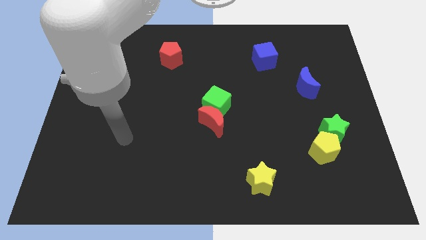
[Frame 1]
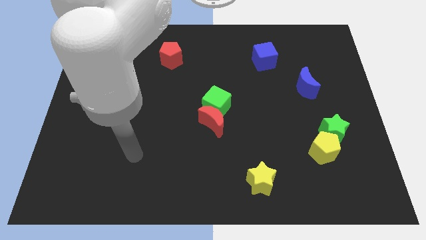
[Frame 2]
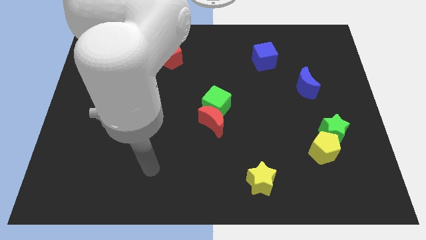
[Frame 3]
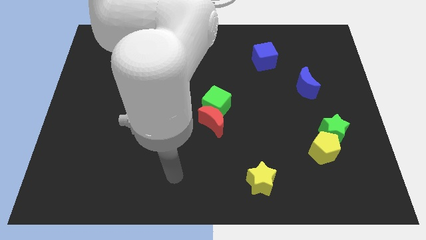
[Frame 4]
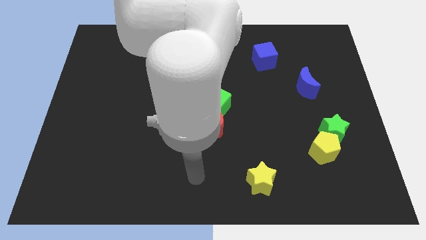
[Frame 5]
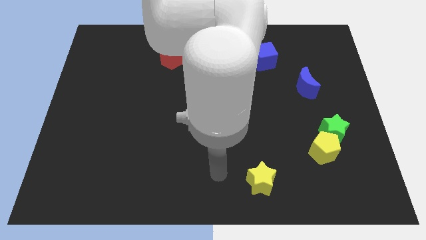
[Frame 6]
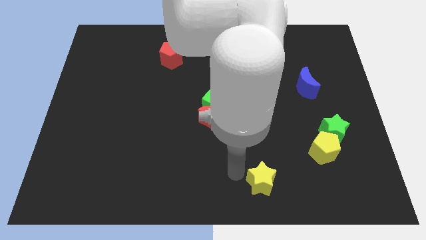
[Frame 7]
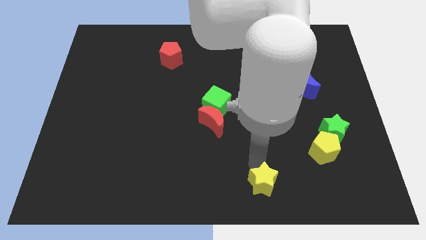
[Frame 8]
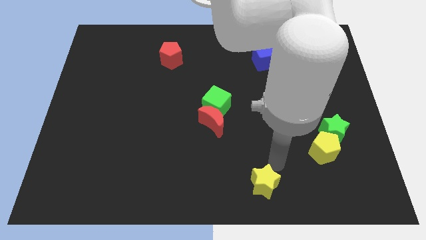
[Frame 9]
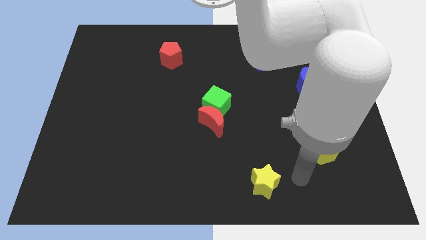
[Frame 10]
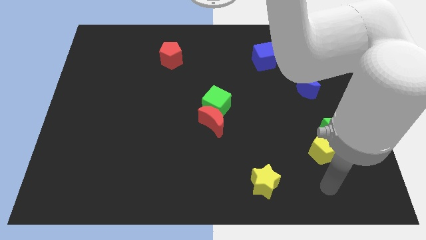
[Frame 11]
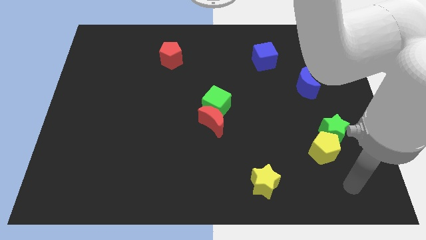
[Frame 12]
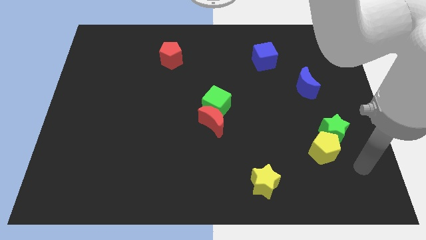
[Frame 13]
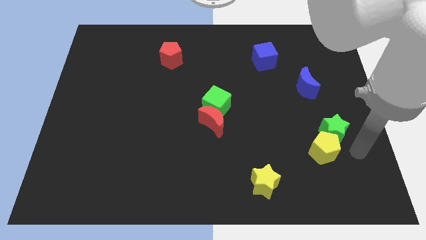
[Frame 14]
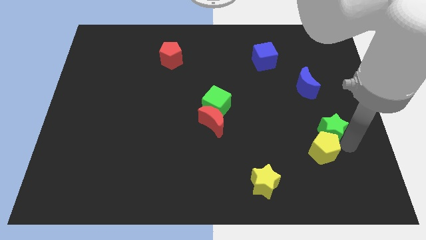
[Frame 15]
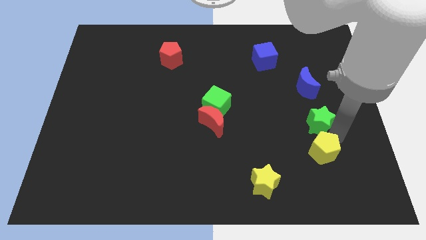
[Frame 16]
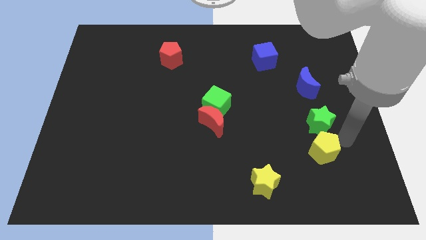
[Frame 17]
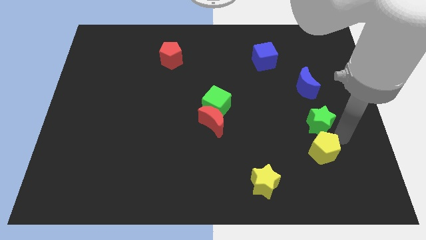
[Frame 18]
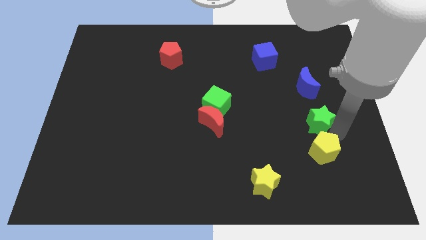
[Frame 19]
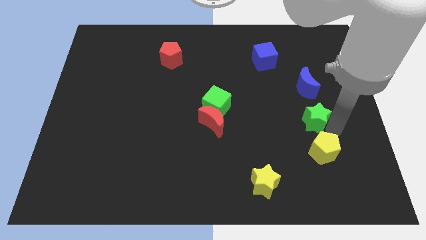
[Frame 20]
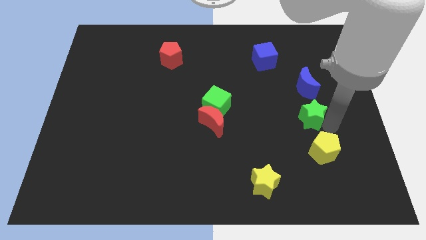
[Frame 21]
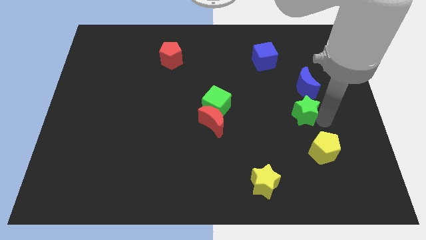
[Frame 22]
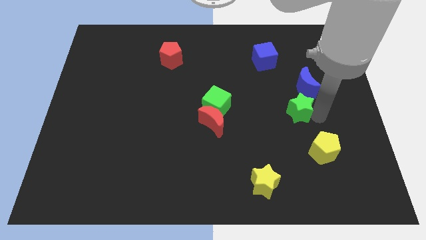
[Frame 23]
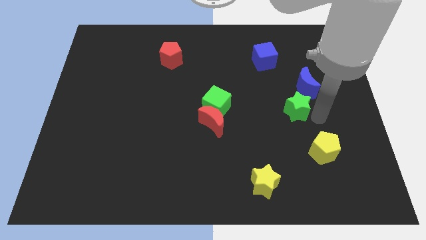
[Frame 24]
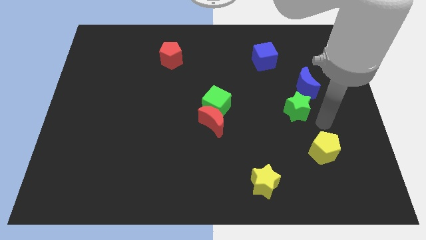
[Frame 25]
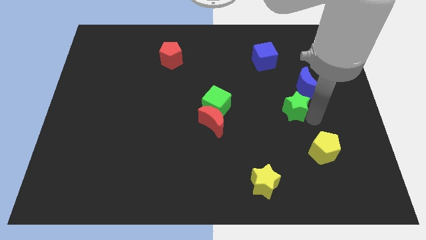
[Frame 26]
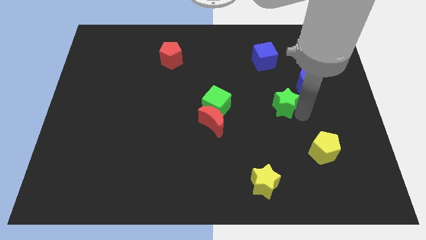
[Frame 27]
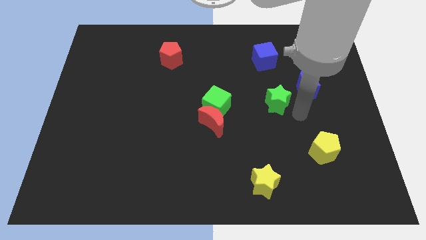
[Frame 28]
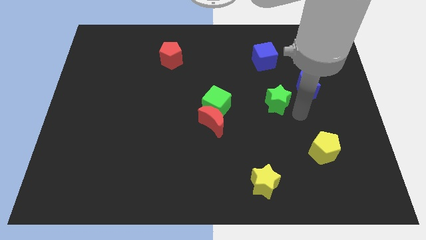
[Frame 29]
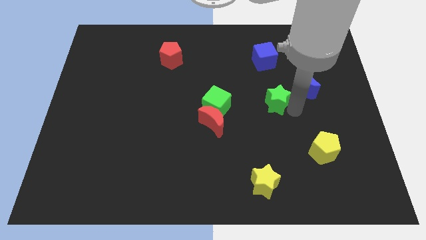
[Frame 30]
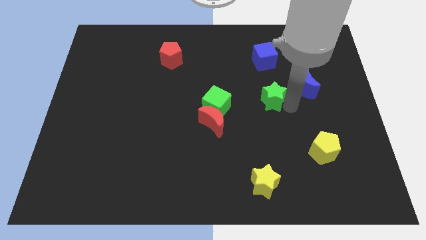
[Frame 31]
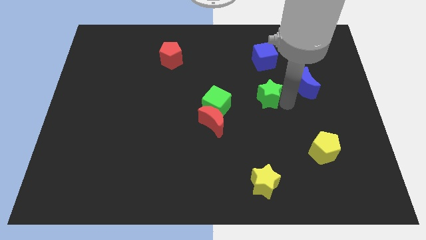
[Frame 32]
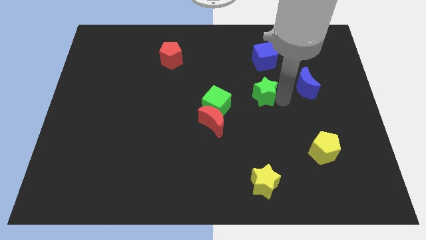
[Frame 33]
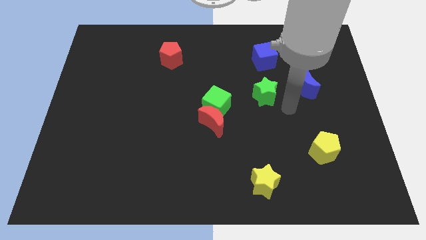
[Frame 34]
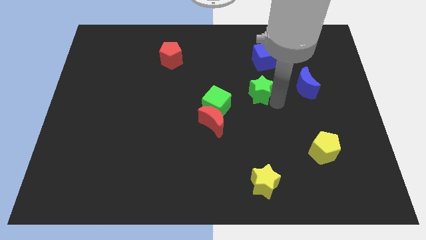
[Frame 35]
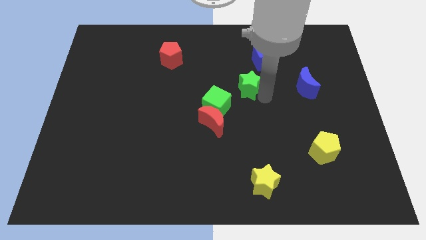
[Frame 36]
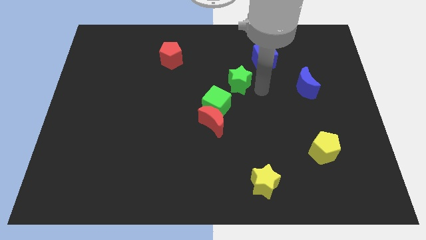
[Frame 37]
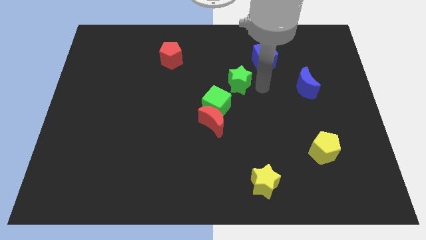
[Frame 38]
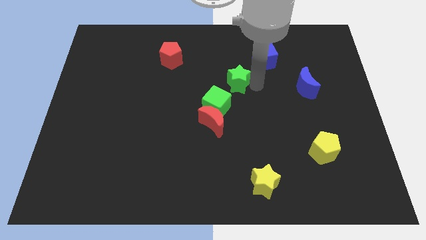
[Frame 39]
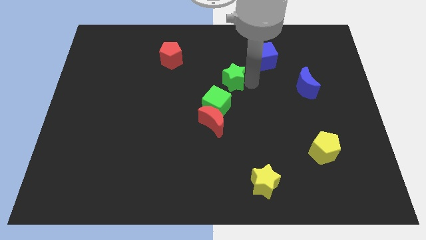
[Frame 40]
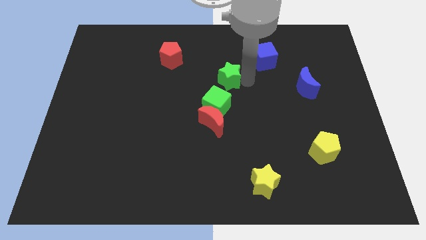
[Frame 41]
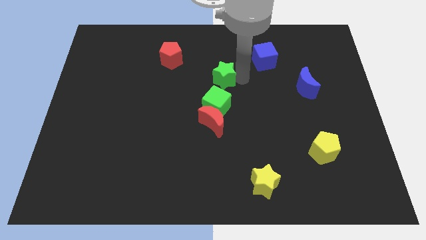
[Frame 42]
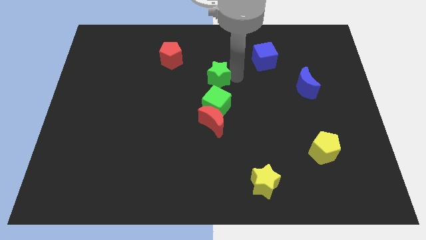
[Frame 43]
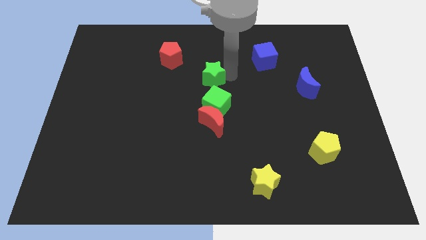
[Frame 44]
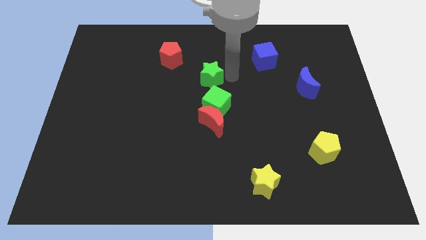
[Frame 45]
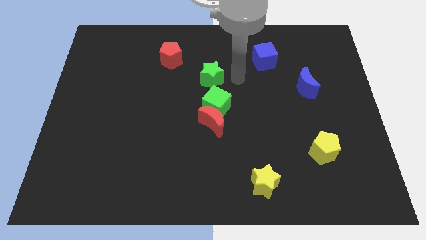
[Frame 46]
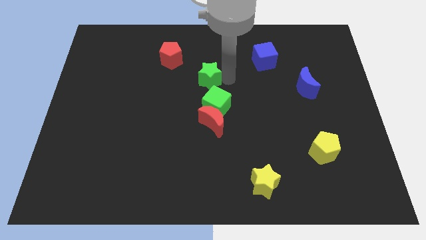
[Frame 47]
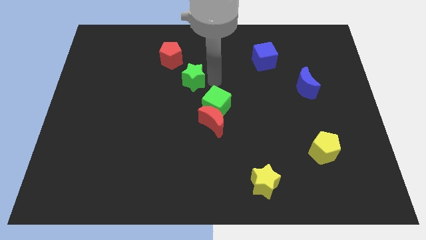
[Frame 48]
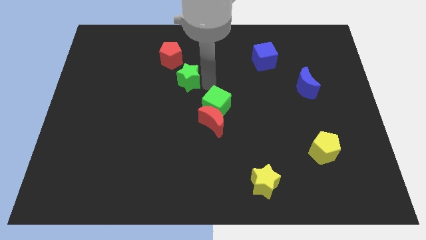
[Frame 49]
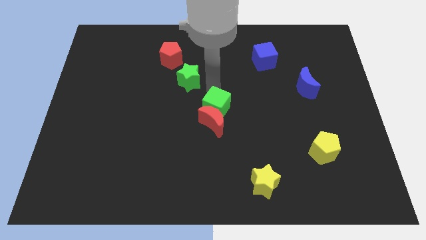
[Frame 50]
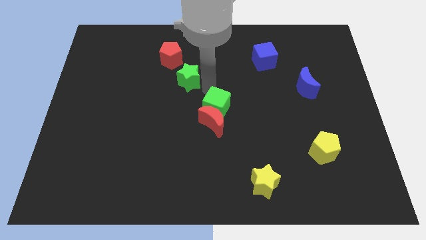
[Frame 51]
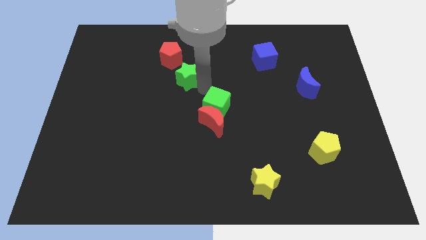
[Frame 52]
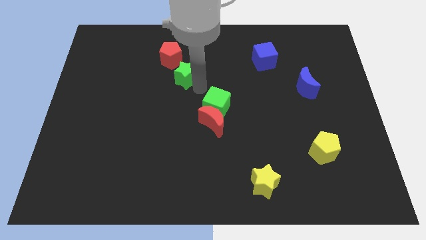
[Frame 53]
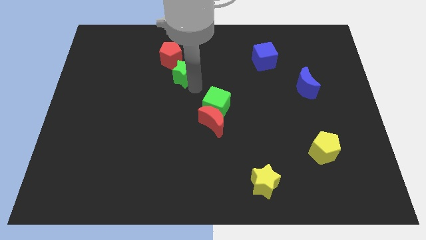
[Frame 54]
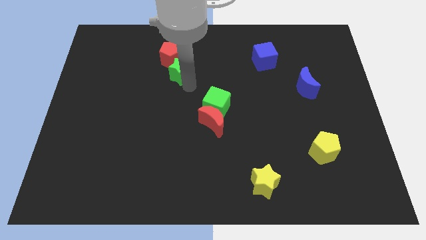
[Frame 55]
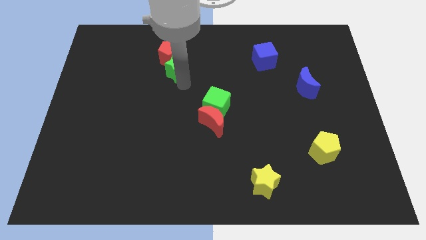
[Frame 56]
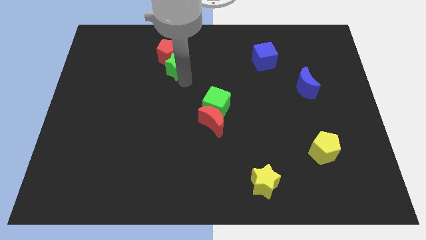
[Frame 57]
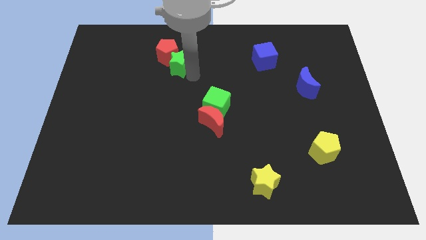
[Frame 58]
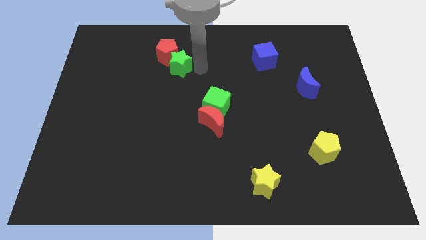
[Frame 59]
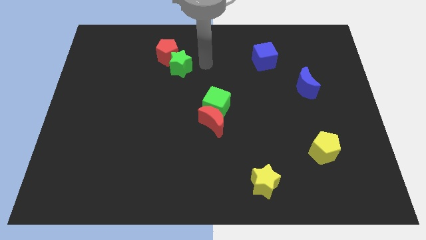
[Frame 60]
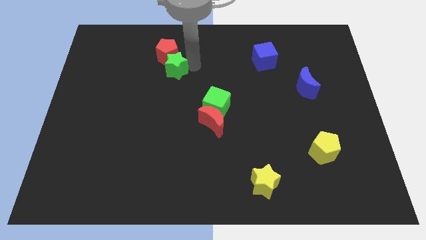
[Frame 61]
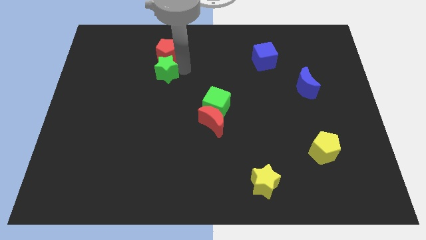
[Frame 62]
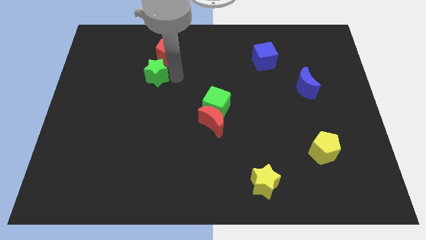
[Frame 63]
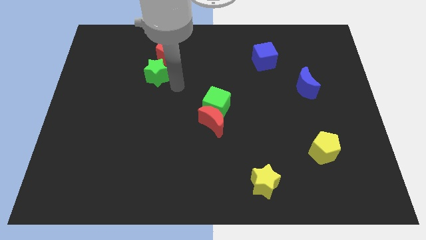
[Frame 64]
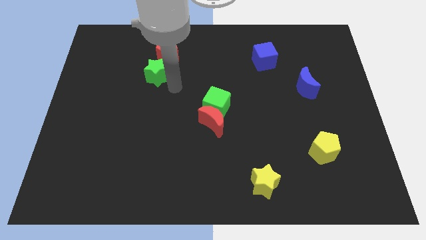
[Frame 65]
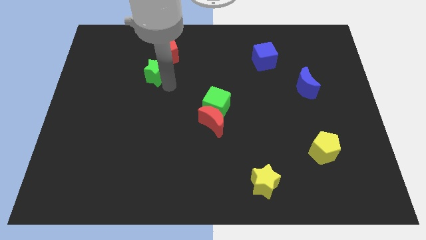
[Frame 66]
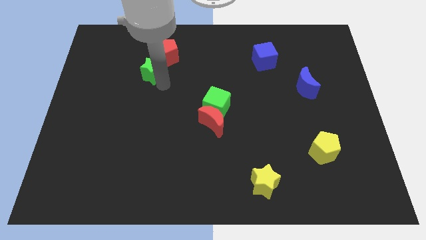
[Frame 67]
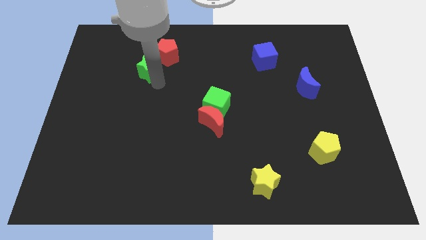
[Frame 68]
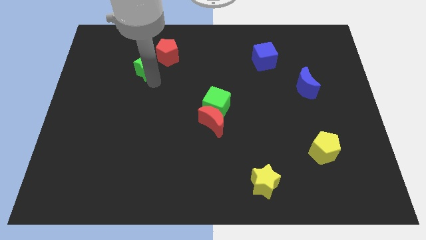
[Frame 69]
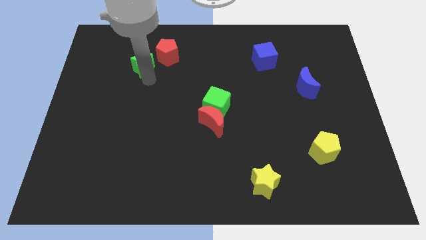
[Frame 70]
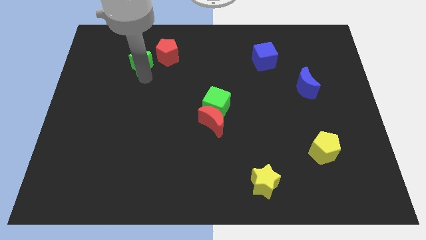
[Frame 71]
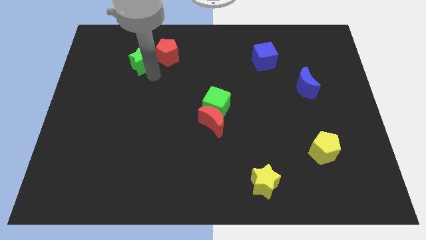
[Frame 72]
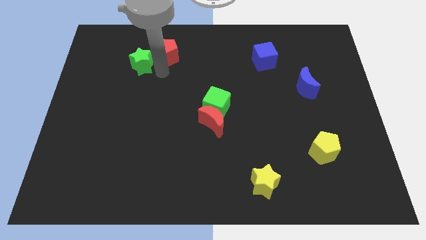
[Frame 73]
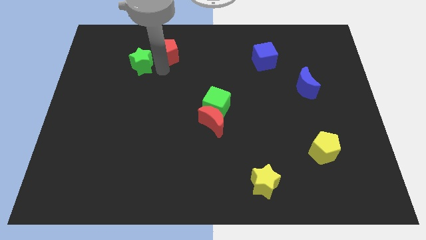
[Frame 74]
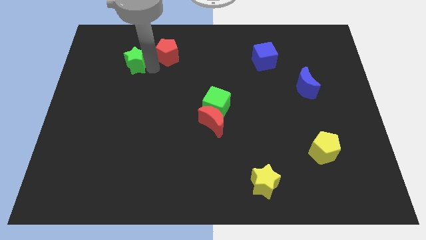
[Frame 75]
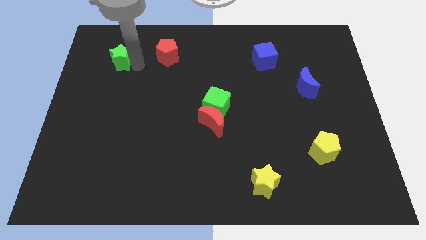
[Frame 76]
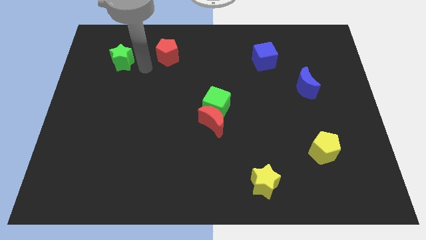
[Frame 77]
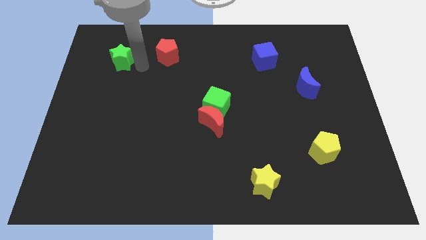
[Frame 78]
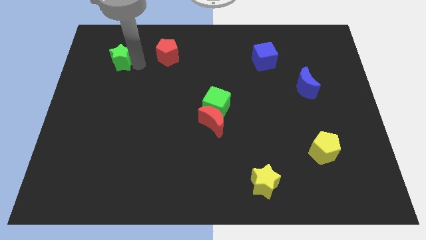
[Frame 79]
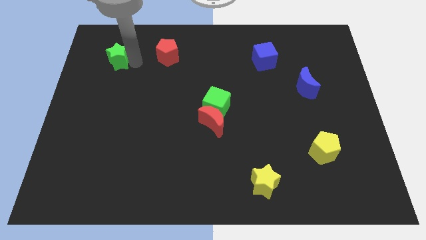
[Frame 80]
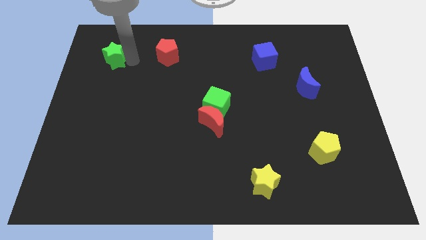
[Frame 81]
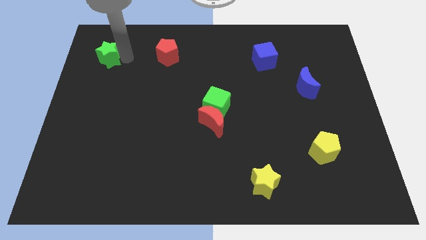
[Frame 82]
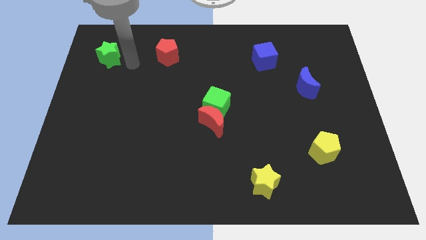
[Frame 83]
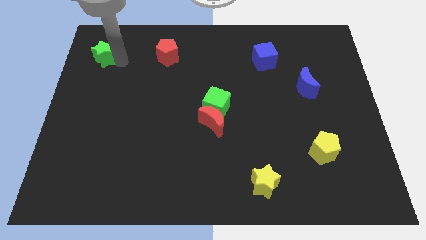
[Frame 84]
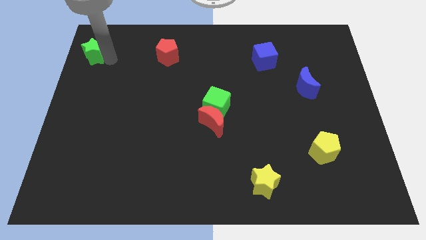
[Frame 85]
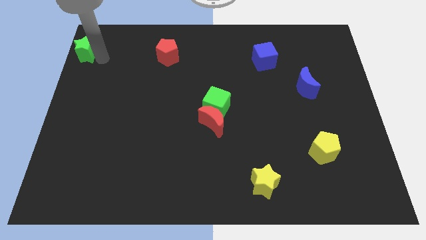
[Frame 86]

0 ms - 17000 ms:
slide the green star to the top left of the board
